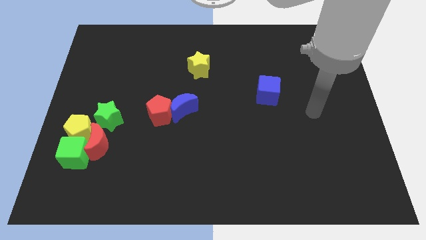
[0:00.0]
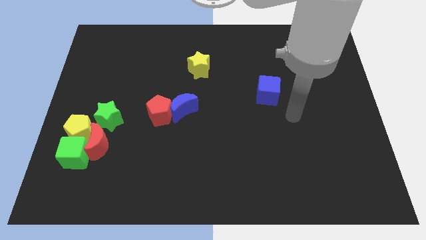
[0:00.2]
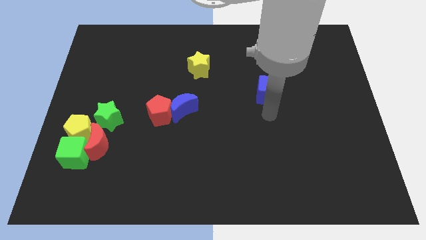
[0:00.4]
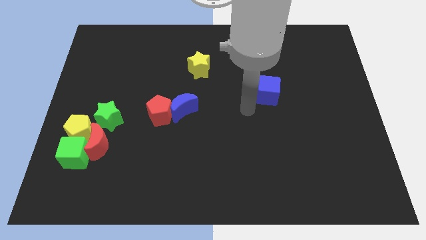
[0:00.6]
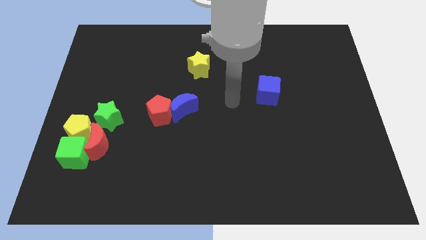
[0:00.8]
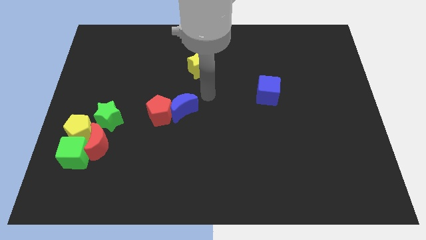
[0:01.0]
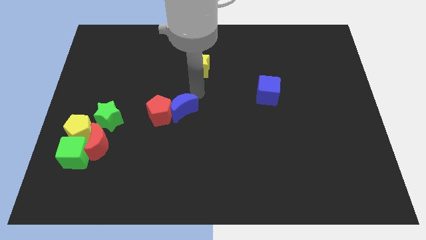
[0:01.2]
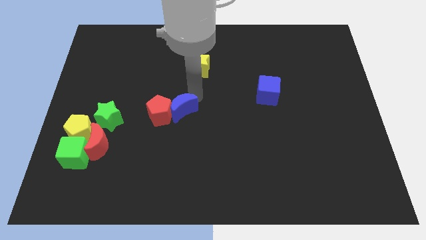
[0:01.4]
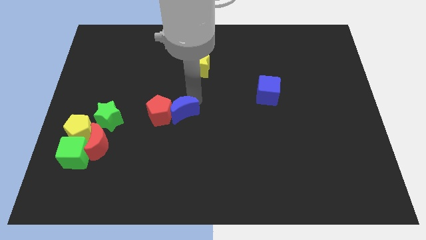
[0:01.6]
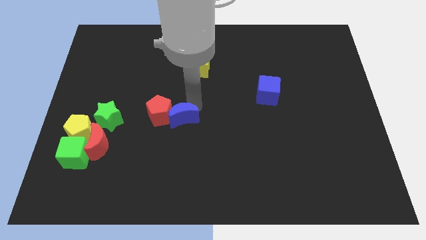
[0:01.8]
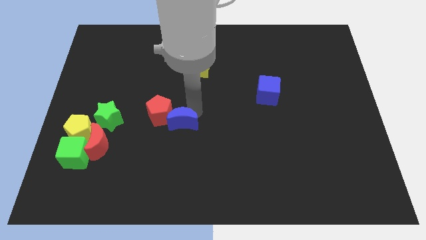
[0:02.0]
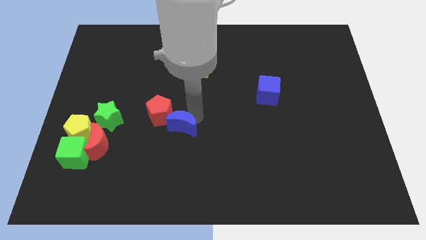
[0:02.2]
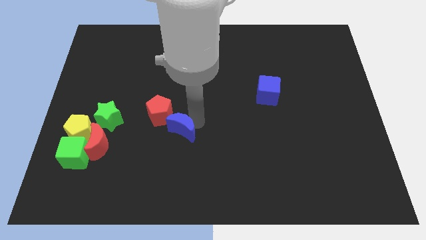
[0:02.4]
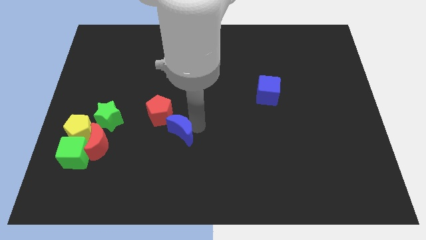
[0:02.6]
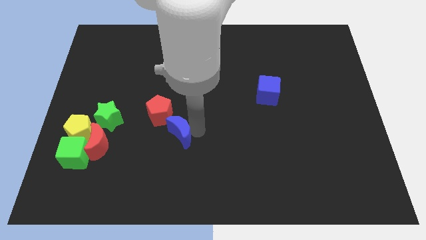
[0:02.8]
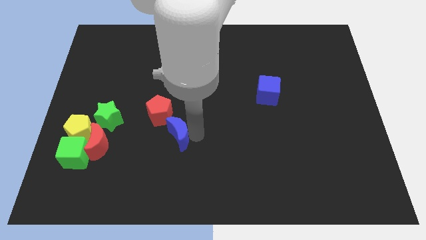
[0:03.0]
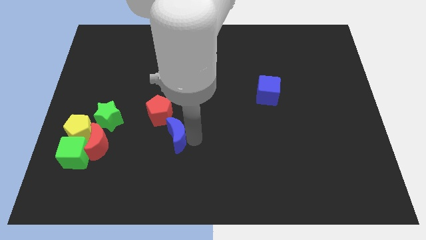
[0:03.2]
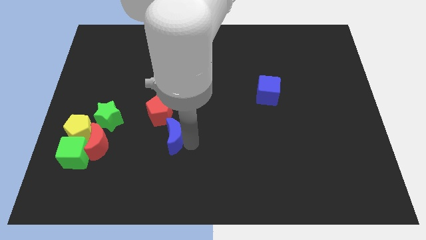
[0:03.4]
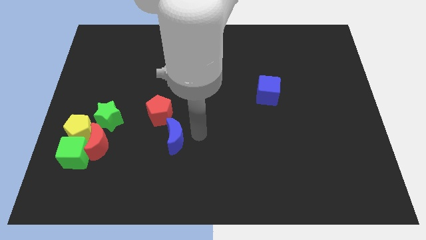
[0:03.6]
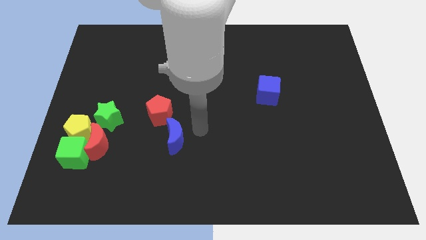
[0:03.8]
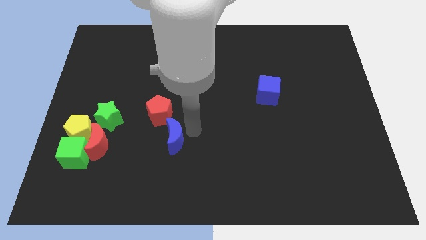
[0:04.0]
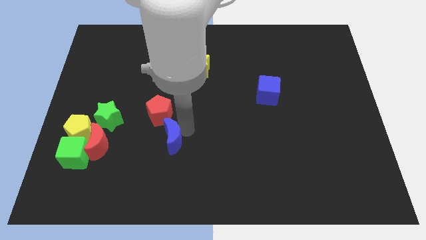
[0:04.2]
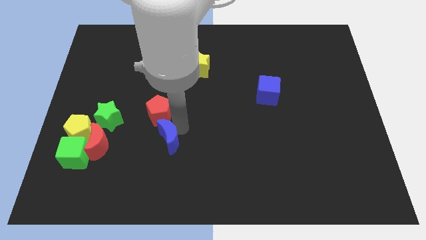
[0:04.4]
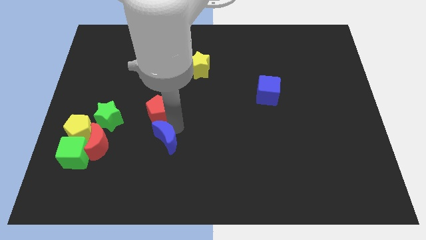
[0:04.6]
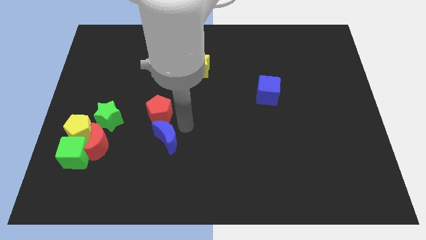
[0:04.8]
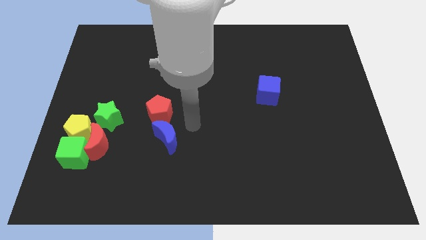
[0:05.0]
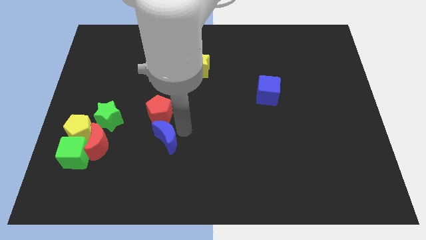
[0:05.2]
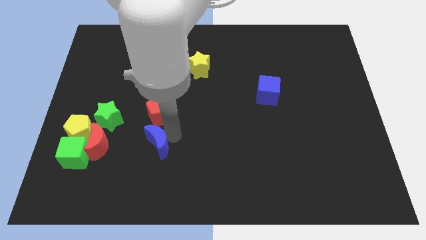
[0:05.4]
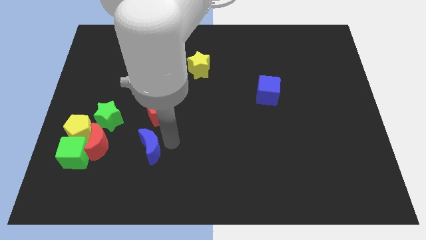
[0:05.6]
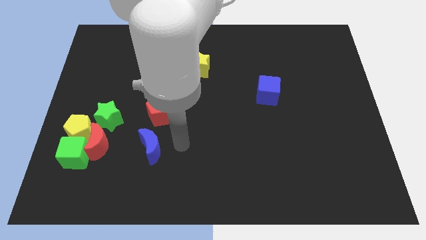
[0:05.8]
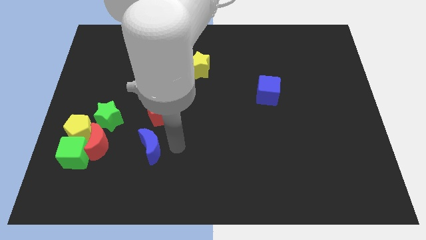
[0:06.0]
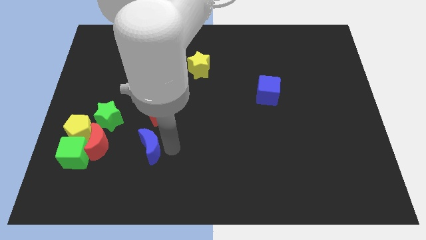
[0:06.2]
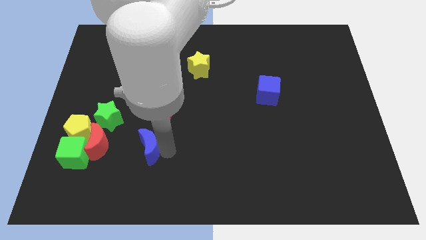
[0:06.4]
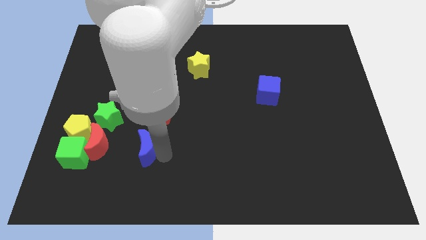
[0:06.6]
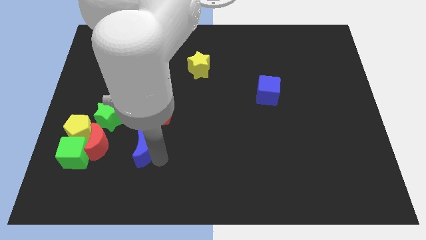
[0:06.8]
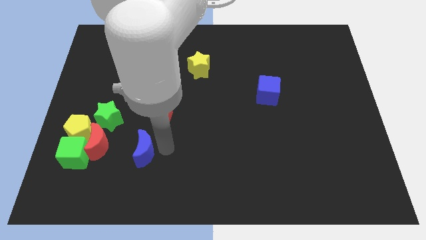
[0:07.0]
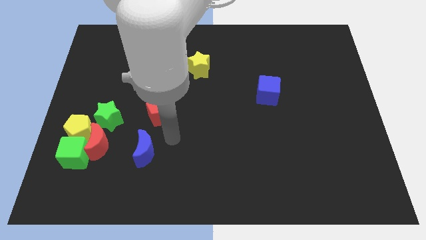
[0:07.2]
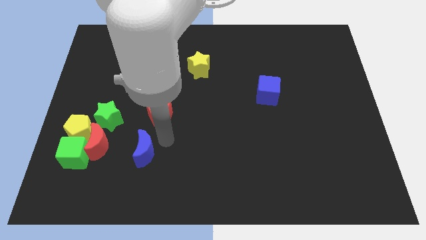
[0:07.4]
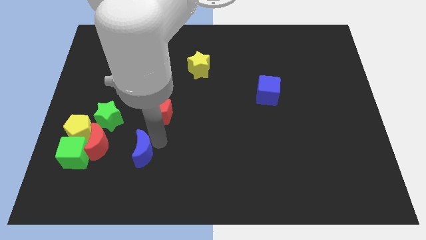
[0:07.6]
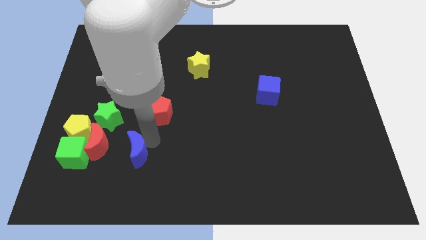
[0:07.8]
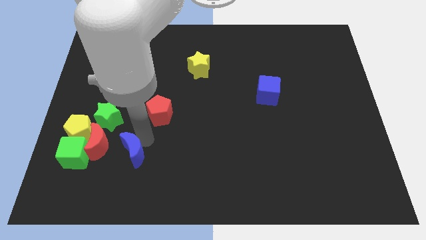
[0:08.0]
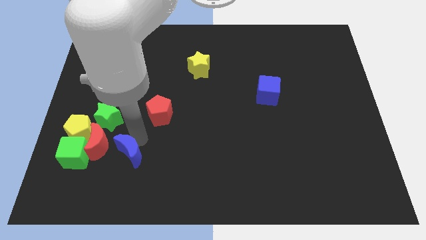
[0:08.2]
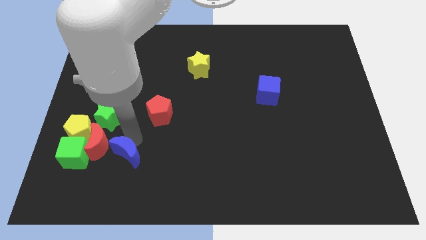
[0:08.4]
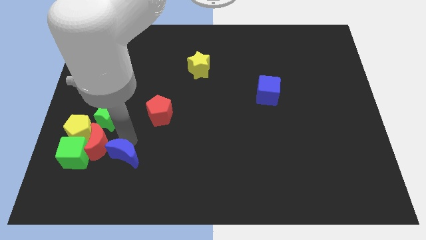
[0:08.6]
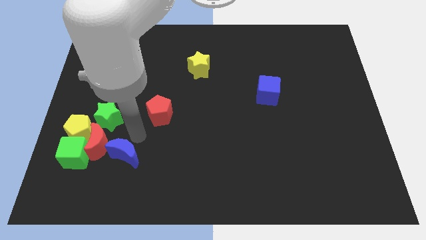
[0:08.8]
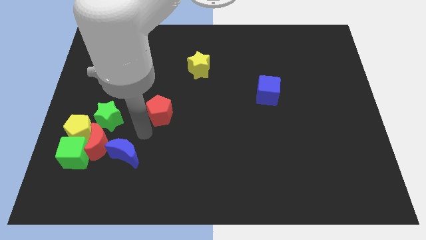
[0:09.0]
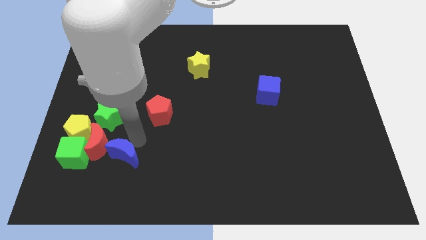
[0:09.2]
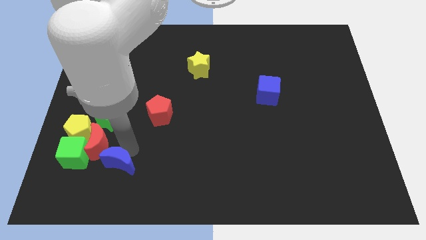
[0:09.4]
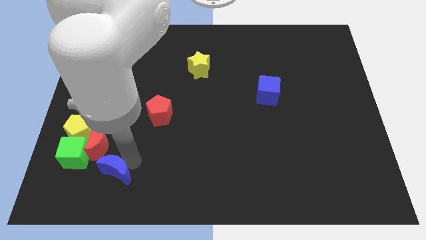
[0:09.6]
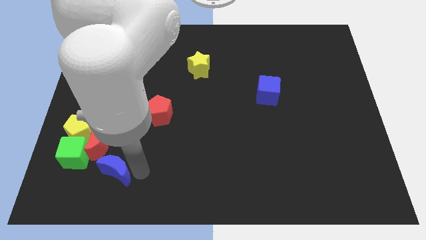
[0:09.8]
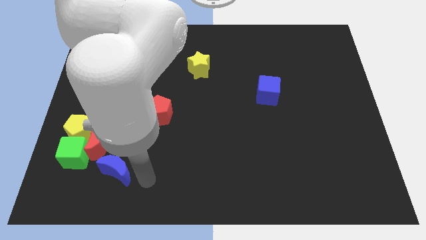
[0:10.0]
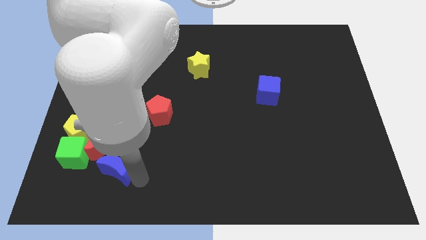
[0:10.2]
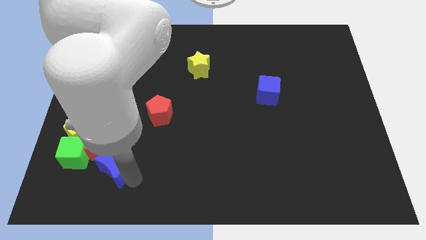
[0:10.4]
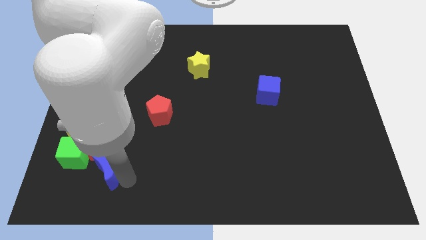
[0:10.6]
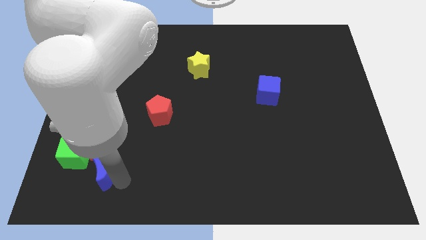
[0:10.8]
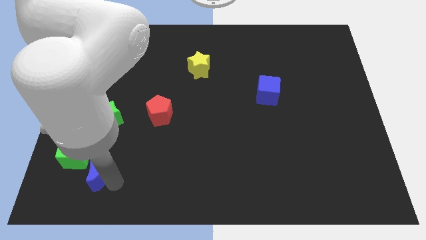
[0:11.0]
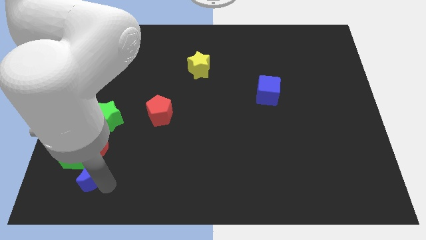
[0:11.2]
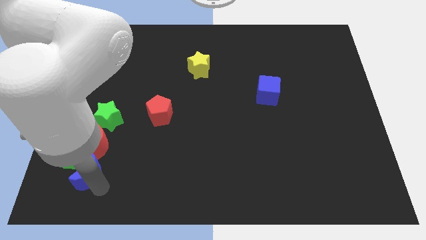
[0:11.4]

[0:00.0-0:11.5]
move the blue moon next to the green cube

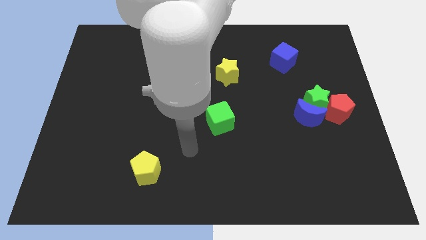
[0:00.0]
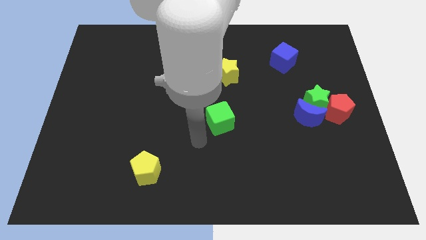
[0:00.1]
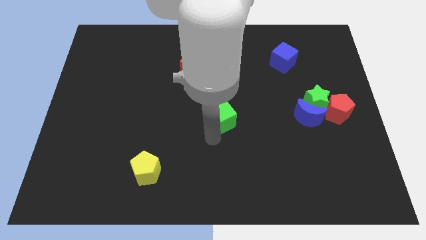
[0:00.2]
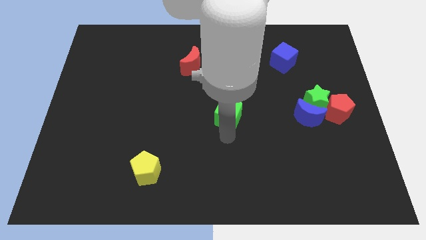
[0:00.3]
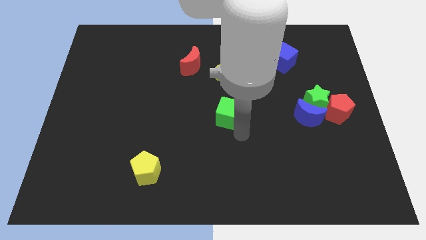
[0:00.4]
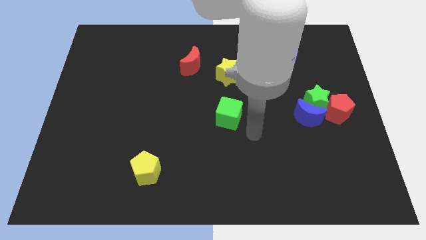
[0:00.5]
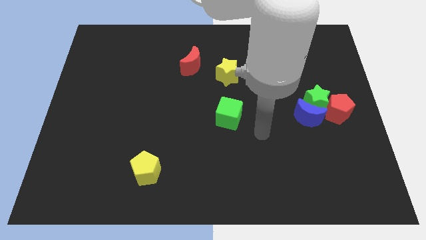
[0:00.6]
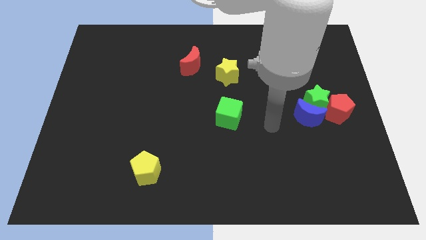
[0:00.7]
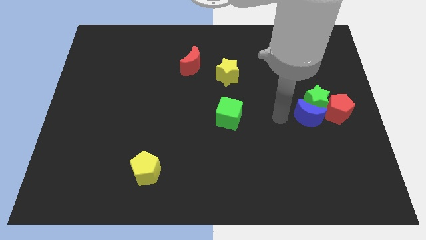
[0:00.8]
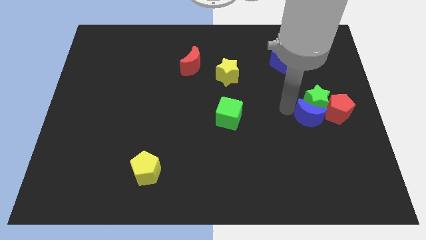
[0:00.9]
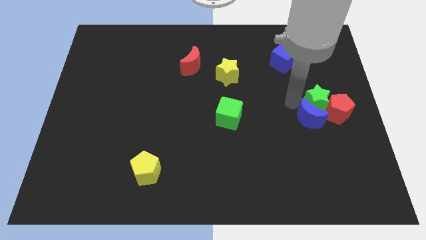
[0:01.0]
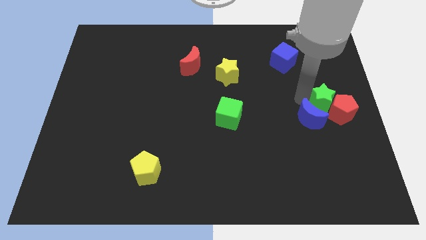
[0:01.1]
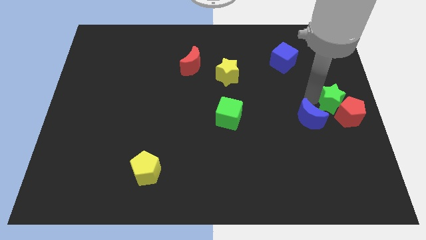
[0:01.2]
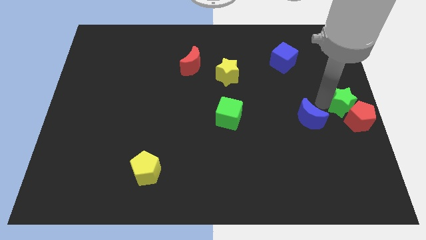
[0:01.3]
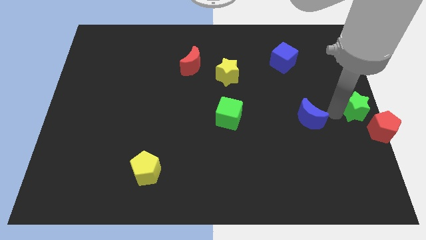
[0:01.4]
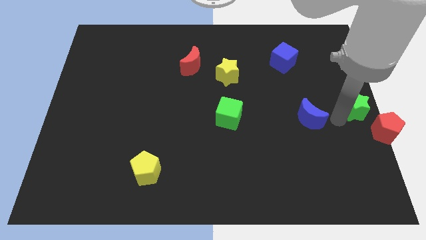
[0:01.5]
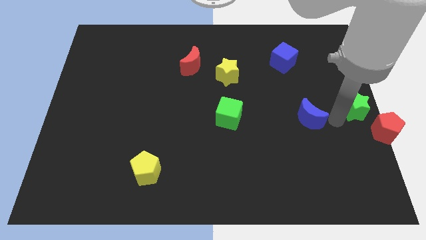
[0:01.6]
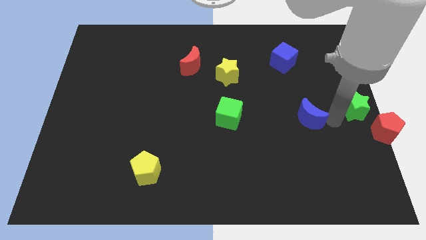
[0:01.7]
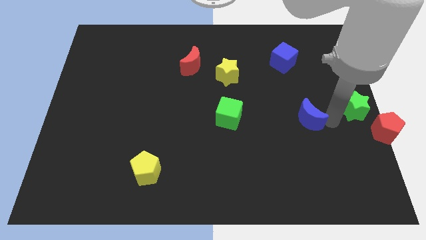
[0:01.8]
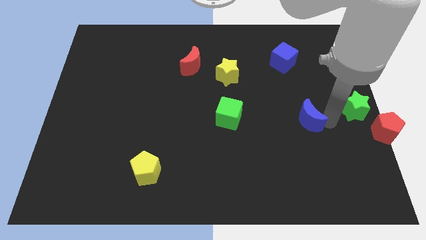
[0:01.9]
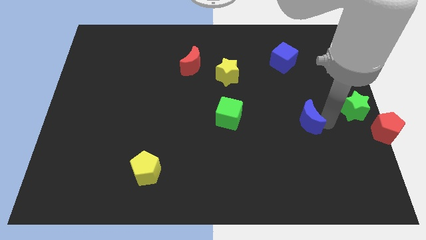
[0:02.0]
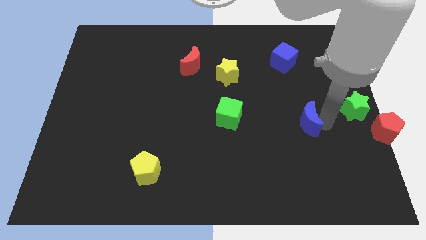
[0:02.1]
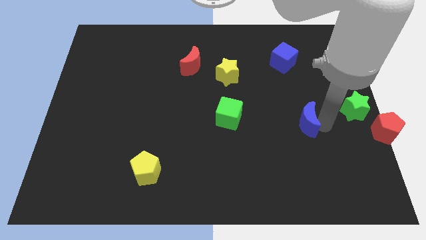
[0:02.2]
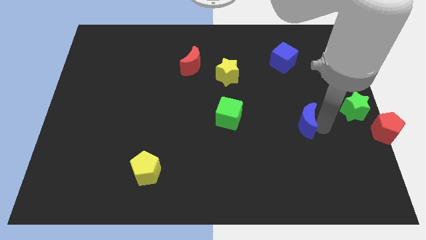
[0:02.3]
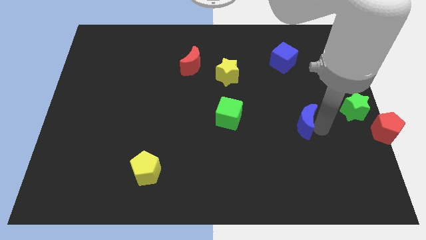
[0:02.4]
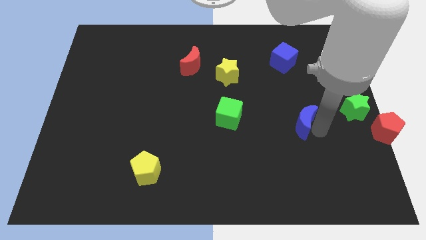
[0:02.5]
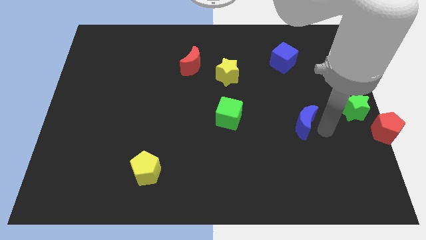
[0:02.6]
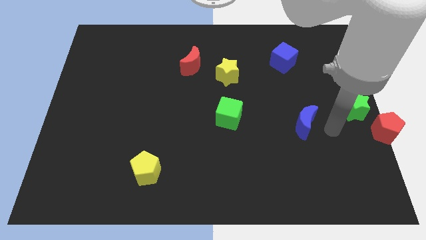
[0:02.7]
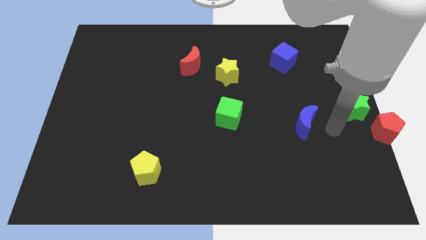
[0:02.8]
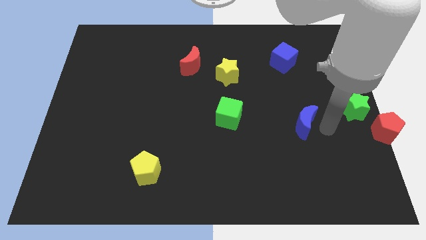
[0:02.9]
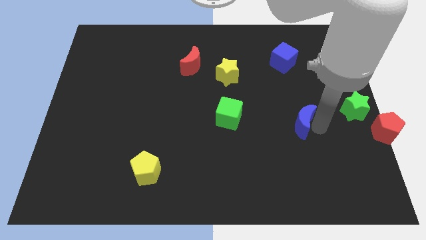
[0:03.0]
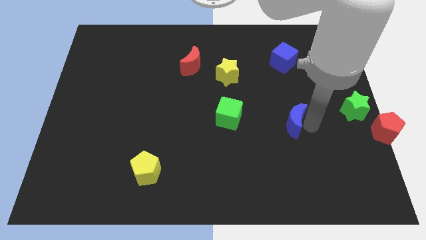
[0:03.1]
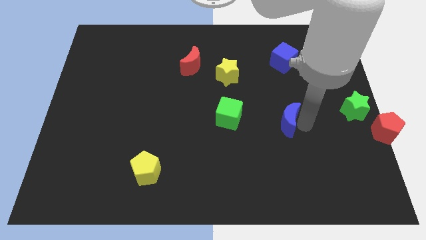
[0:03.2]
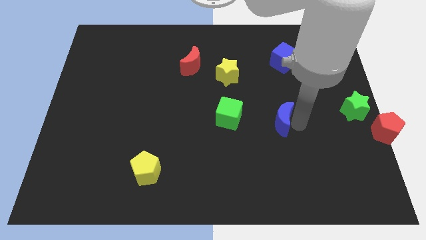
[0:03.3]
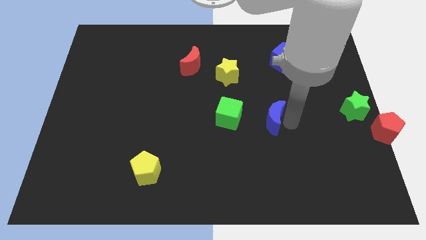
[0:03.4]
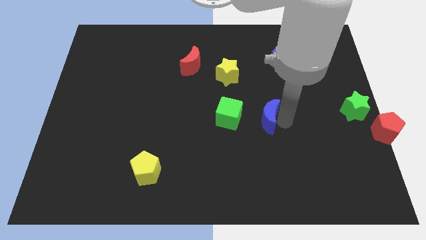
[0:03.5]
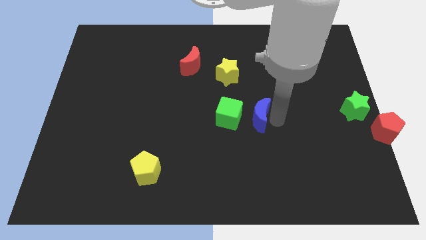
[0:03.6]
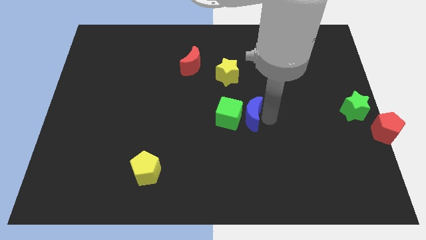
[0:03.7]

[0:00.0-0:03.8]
push the blue moon close to the green cube
